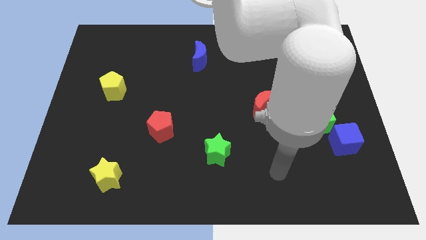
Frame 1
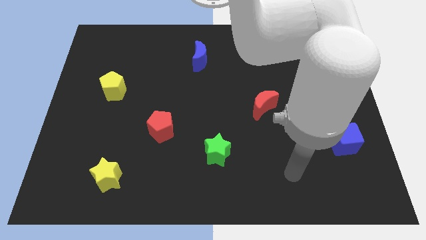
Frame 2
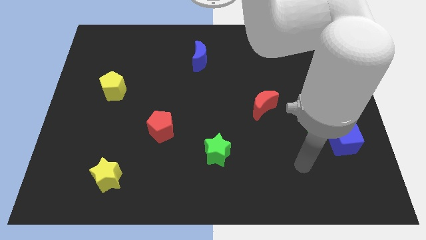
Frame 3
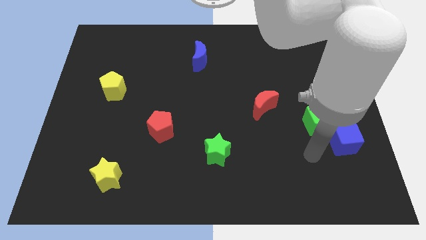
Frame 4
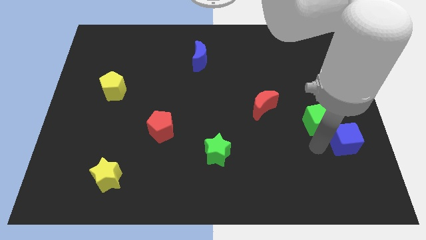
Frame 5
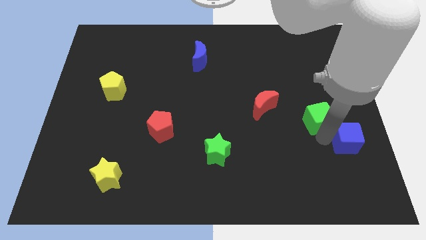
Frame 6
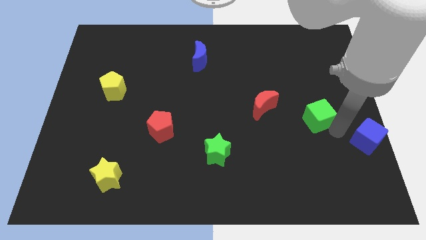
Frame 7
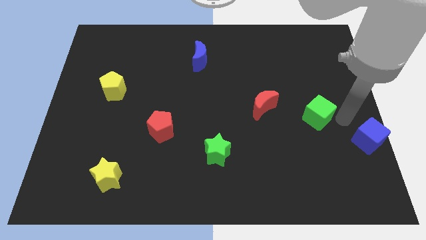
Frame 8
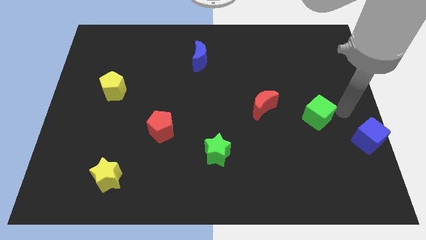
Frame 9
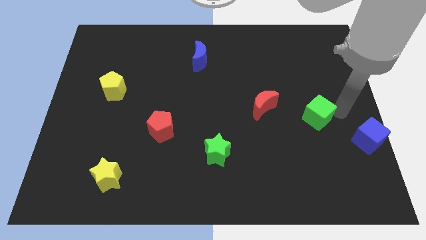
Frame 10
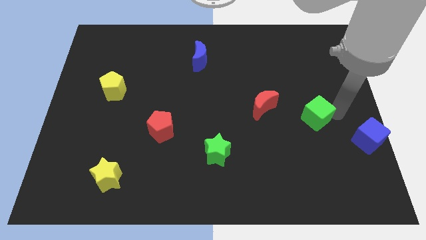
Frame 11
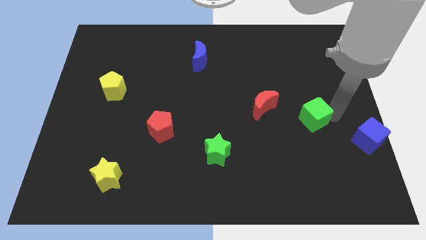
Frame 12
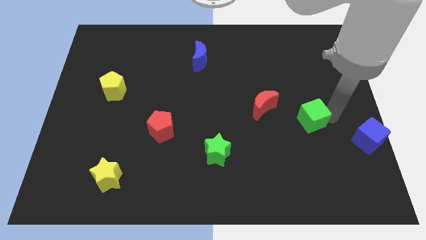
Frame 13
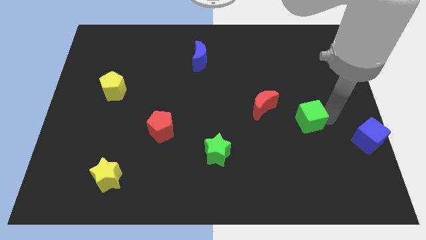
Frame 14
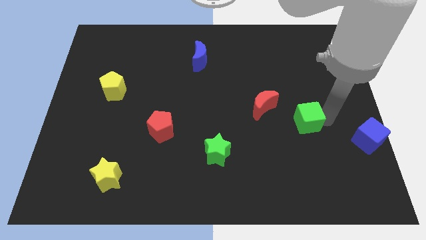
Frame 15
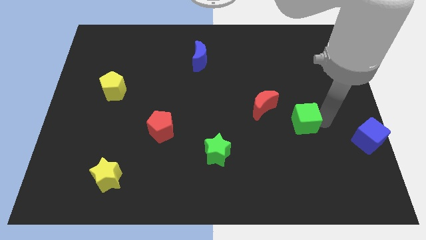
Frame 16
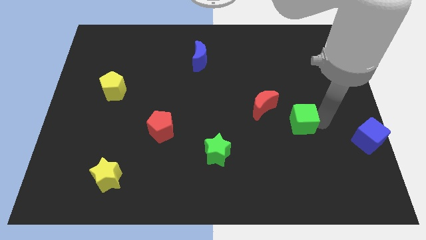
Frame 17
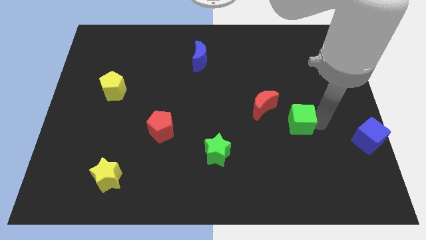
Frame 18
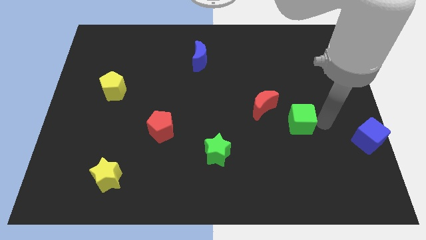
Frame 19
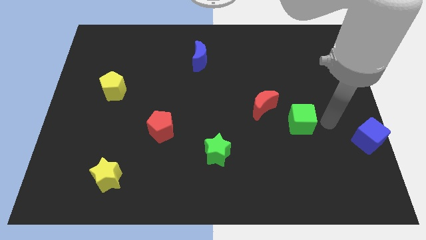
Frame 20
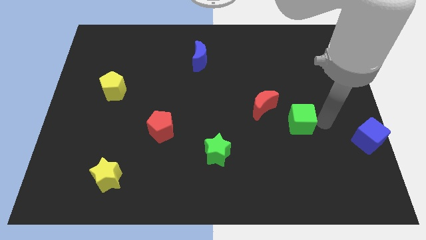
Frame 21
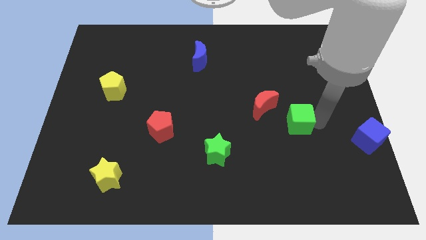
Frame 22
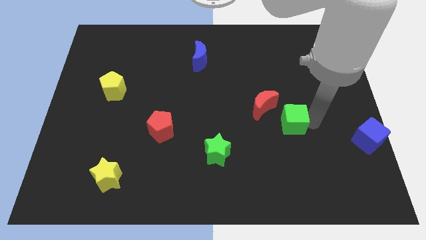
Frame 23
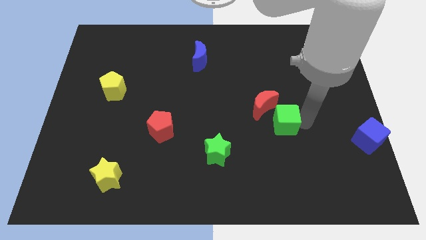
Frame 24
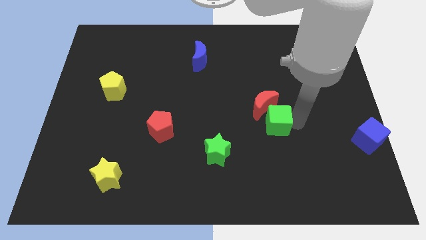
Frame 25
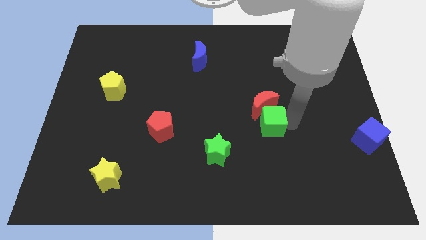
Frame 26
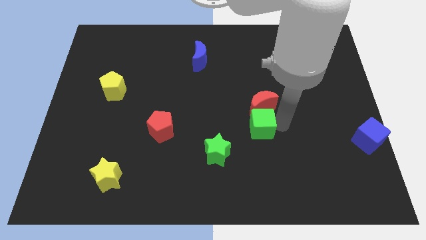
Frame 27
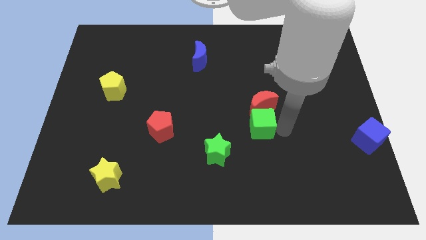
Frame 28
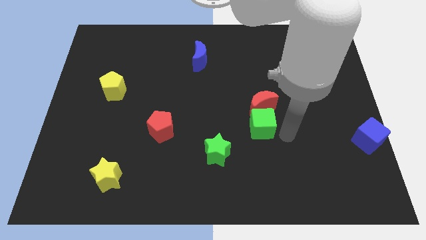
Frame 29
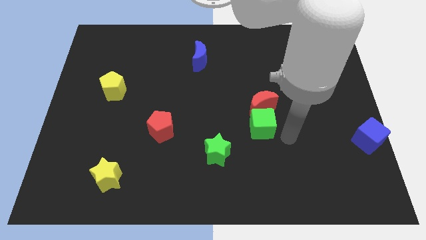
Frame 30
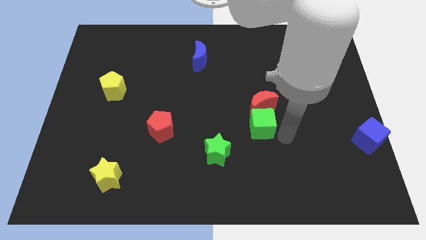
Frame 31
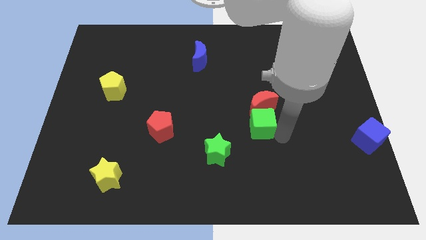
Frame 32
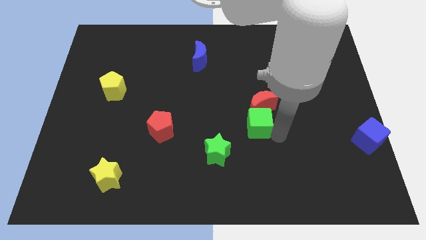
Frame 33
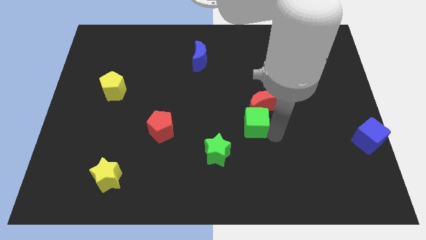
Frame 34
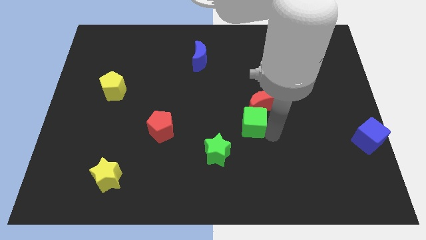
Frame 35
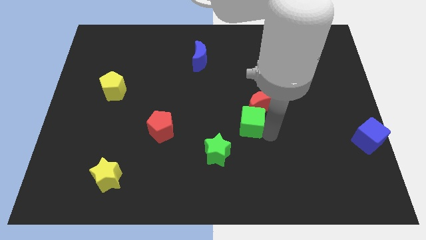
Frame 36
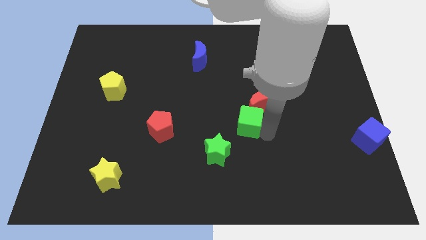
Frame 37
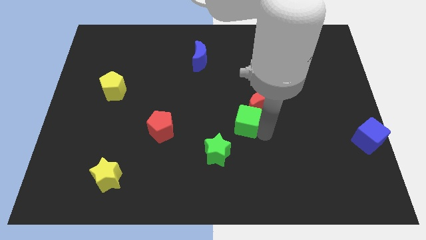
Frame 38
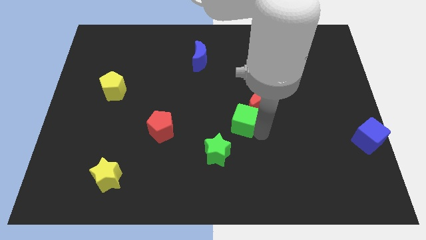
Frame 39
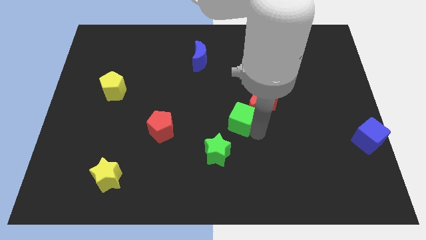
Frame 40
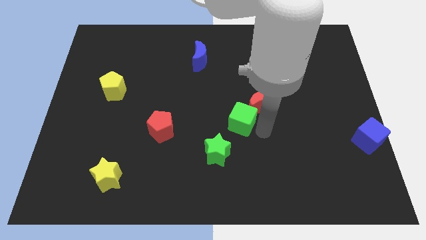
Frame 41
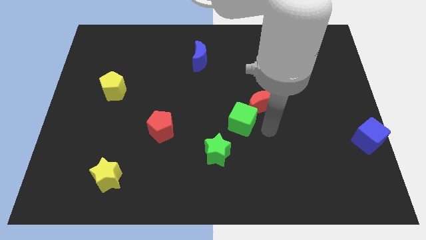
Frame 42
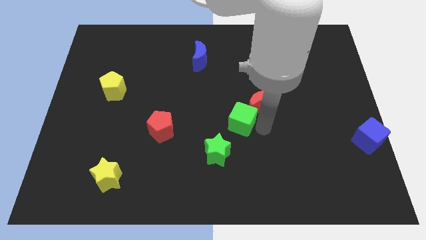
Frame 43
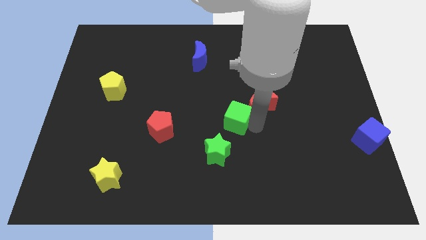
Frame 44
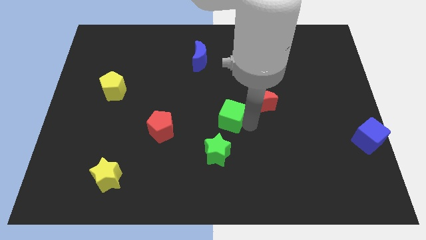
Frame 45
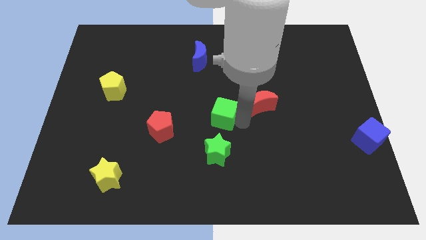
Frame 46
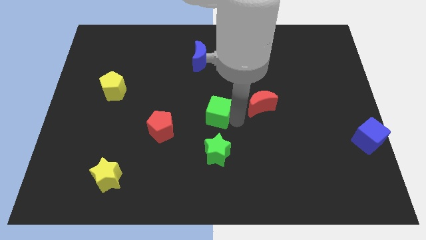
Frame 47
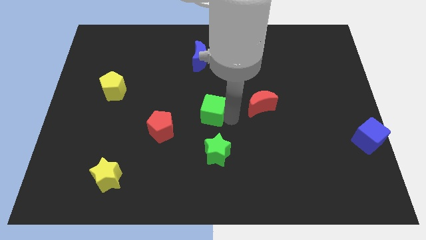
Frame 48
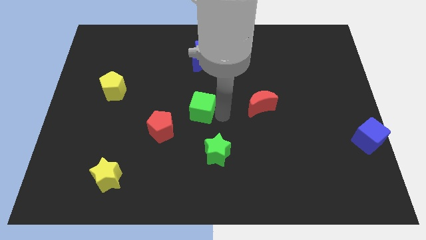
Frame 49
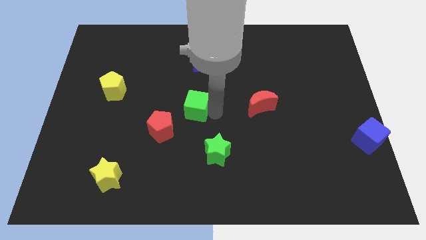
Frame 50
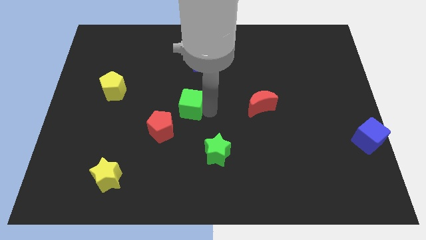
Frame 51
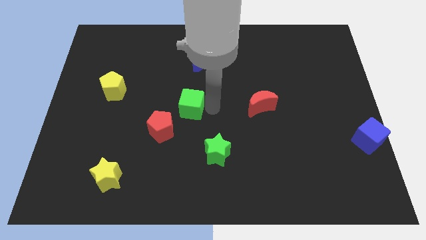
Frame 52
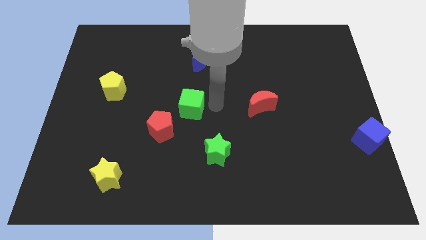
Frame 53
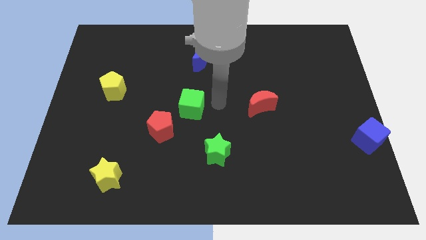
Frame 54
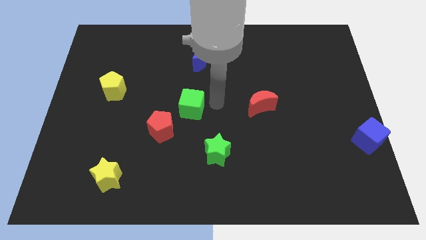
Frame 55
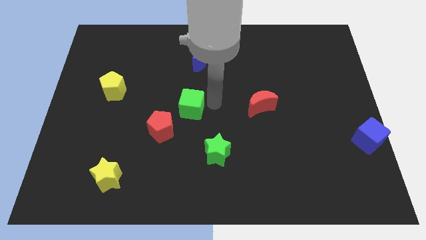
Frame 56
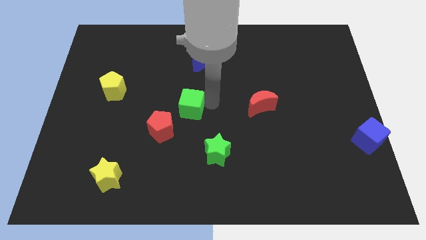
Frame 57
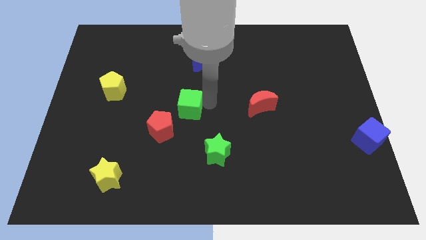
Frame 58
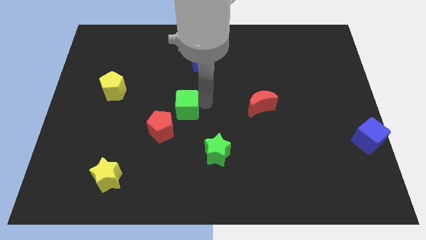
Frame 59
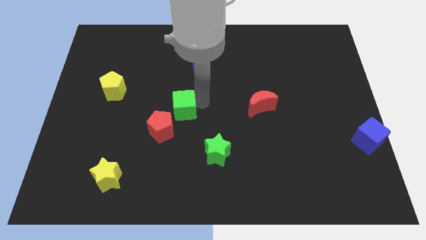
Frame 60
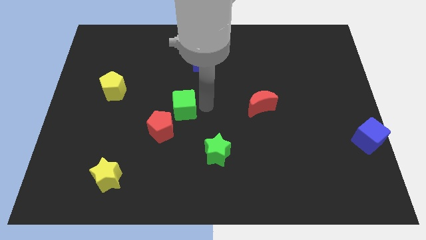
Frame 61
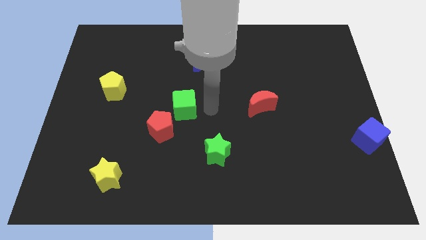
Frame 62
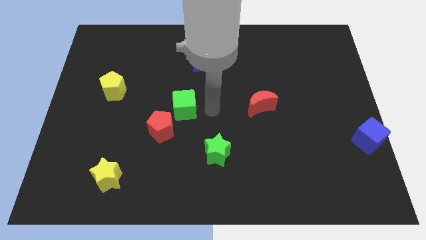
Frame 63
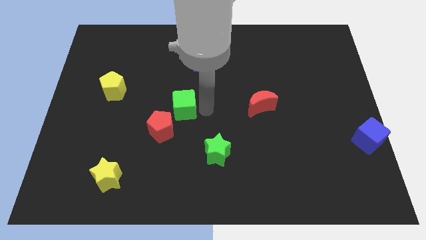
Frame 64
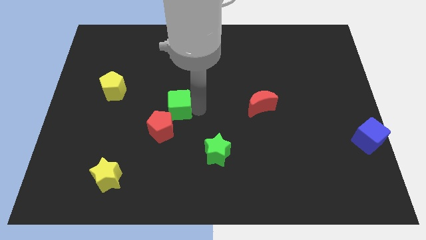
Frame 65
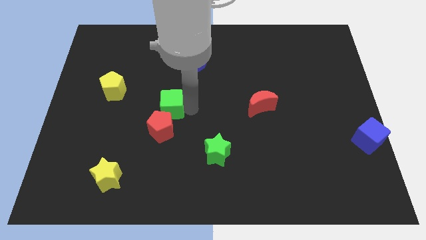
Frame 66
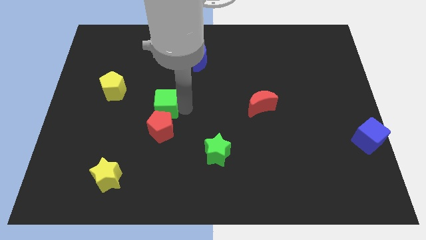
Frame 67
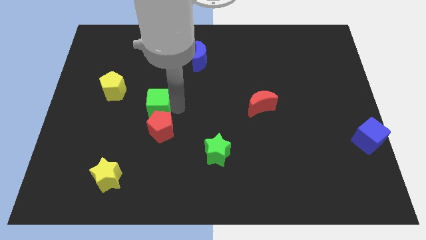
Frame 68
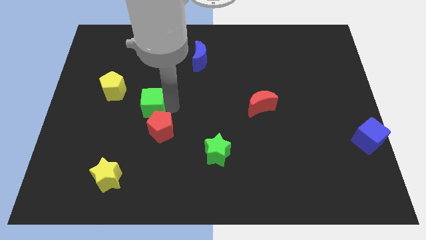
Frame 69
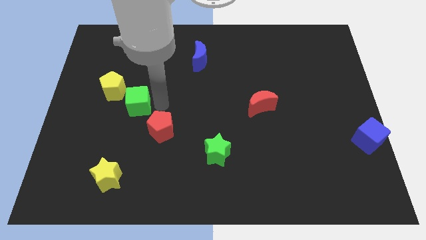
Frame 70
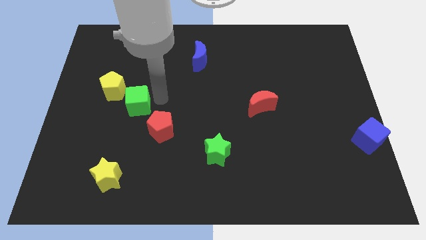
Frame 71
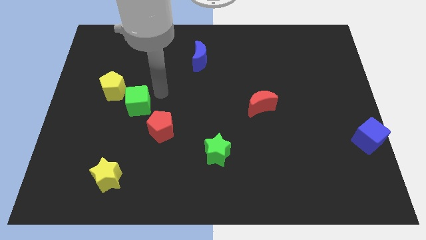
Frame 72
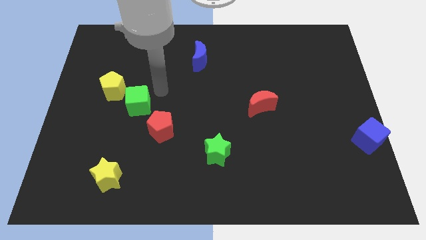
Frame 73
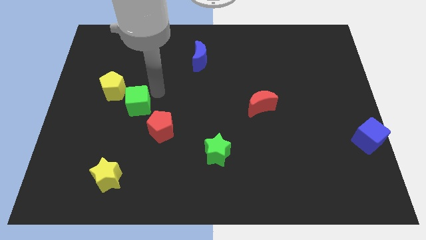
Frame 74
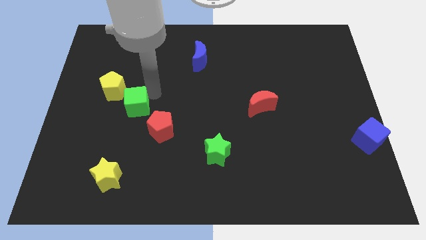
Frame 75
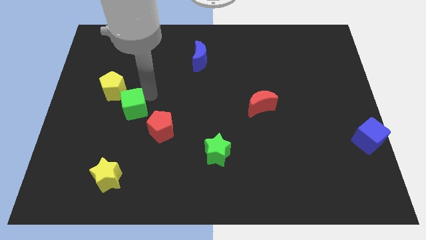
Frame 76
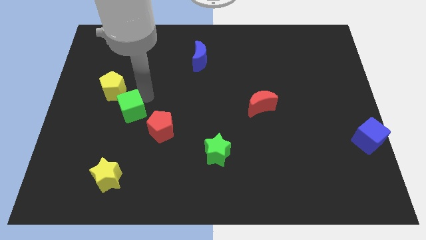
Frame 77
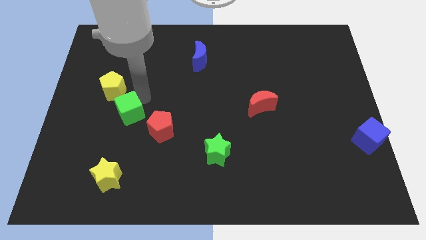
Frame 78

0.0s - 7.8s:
move the green cube to the bottom of the yellow pentagon

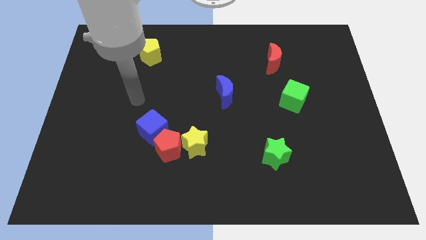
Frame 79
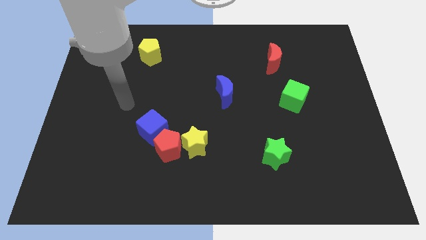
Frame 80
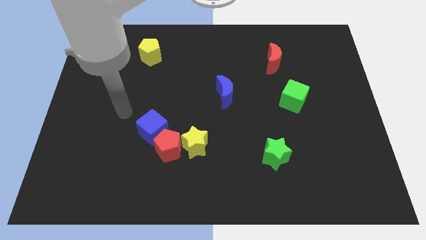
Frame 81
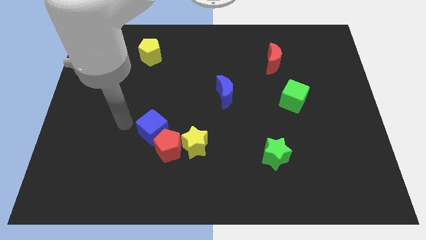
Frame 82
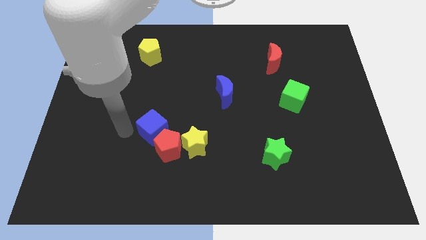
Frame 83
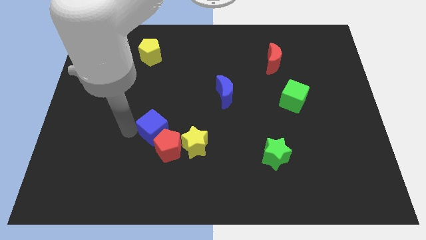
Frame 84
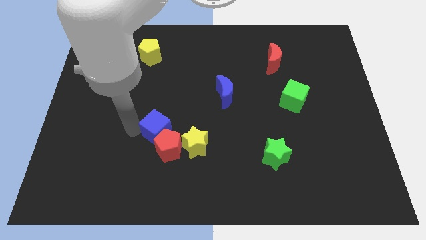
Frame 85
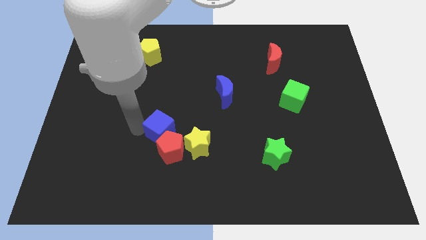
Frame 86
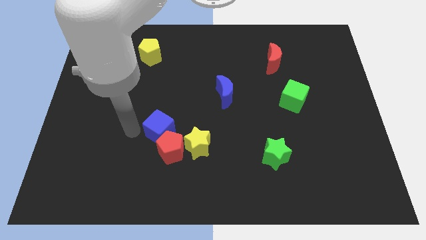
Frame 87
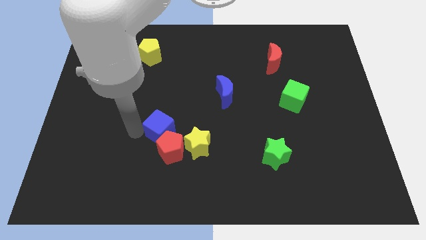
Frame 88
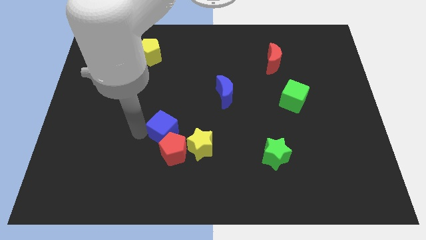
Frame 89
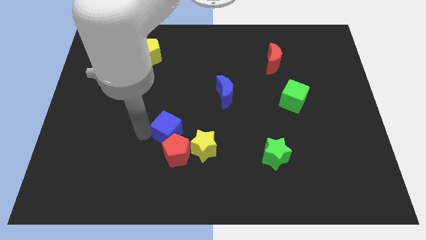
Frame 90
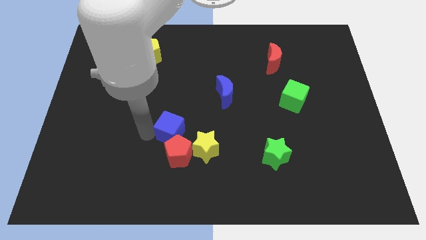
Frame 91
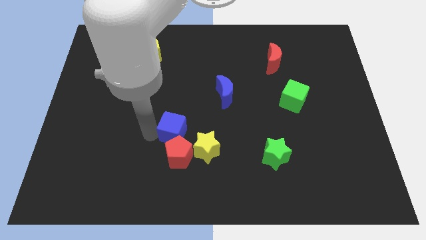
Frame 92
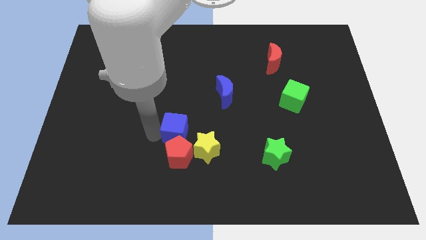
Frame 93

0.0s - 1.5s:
push the blue cube to the top right of the red pentagon
